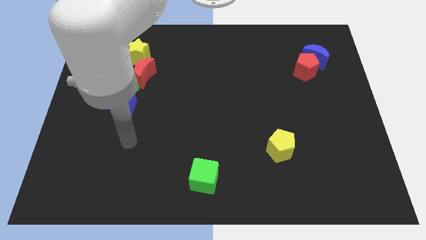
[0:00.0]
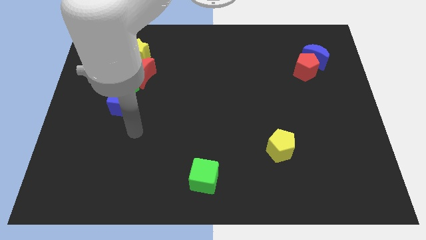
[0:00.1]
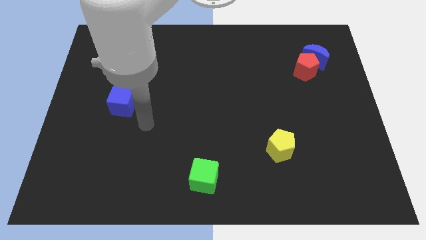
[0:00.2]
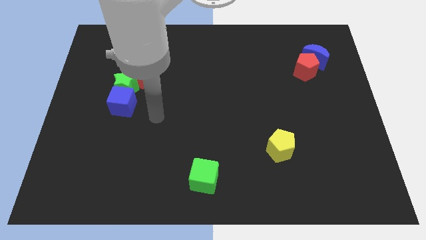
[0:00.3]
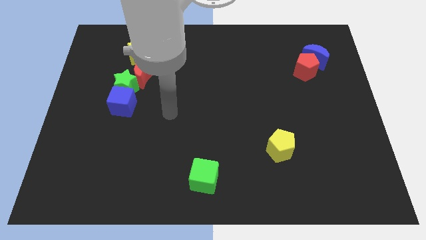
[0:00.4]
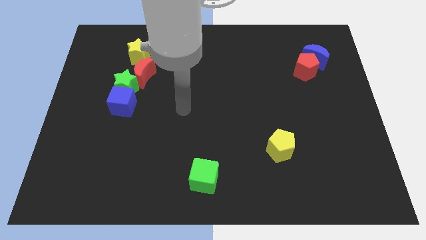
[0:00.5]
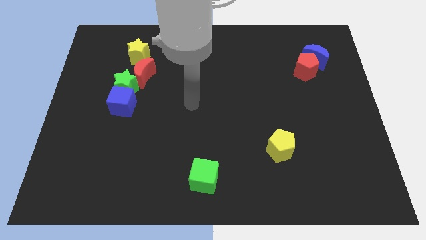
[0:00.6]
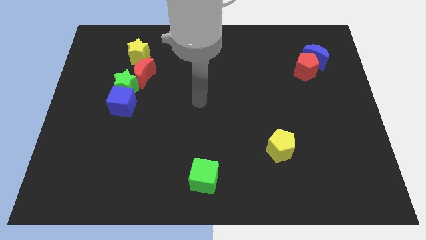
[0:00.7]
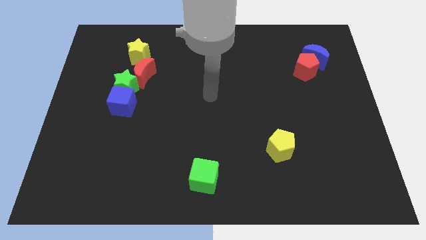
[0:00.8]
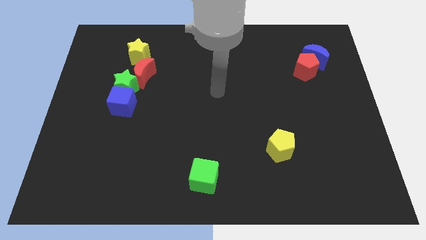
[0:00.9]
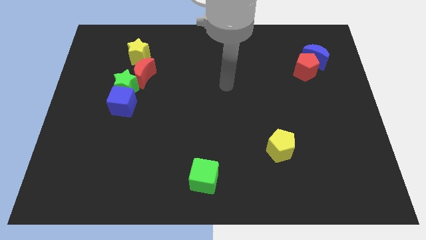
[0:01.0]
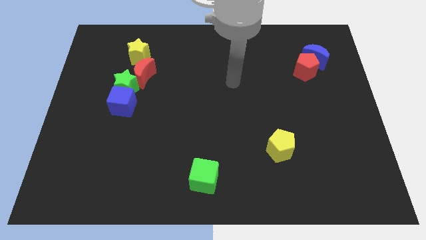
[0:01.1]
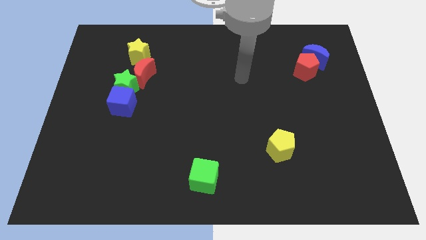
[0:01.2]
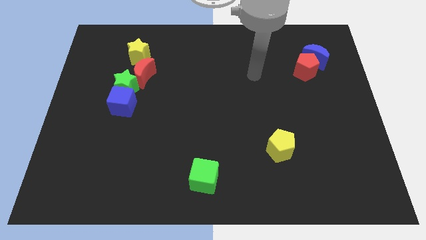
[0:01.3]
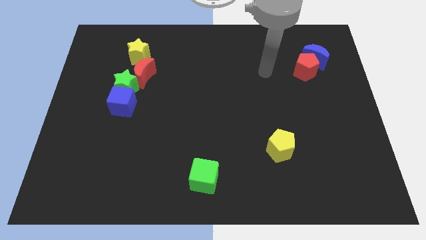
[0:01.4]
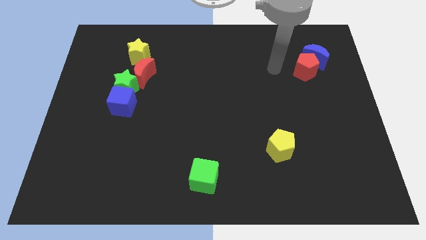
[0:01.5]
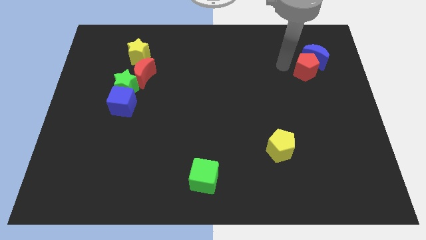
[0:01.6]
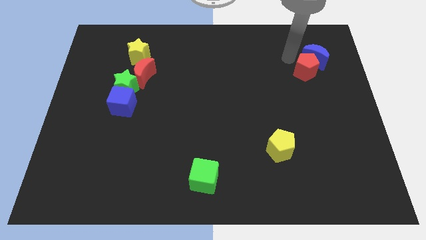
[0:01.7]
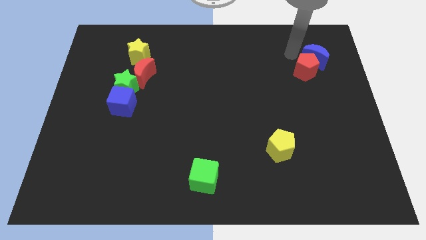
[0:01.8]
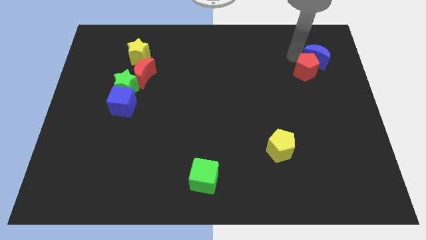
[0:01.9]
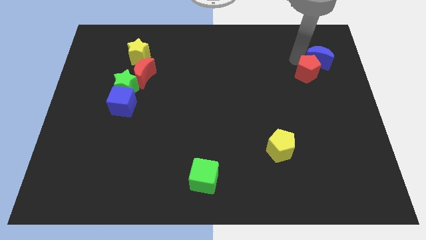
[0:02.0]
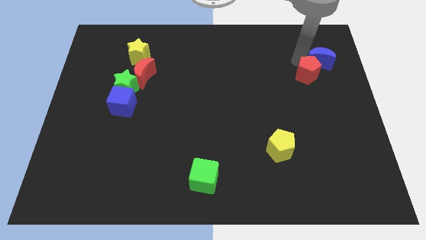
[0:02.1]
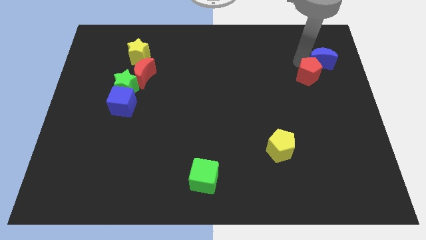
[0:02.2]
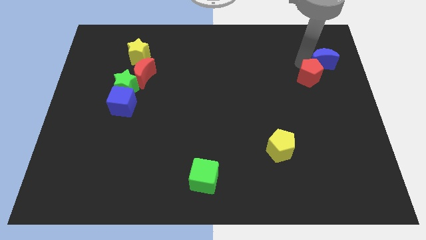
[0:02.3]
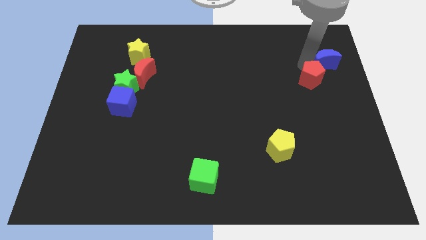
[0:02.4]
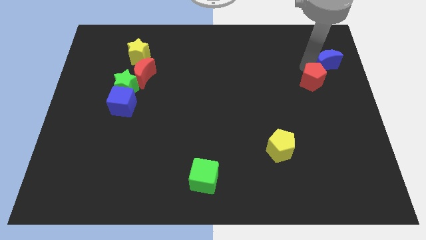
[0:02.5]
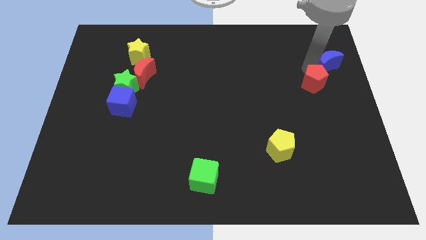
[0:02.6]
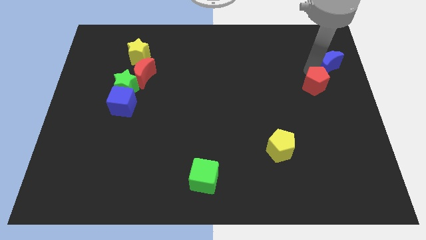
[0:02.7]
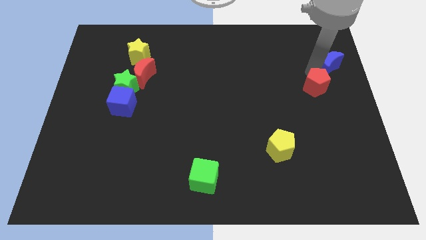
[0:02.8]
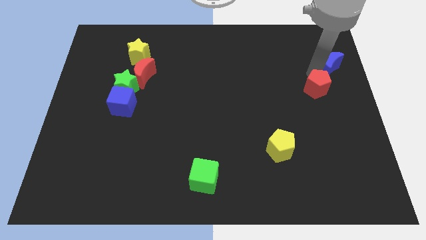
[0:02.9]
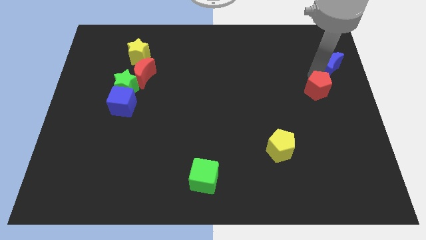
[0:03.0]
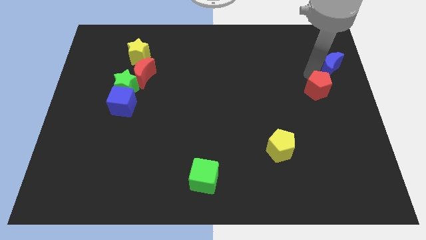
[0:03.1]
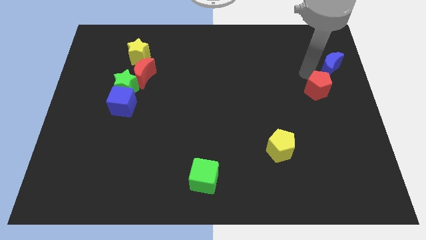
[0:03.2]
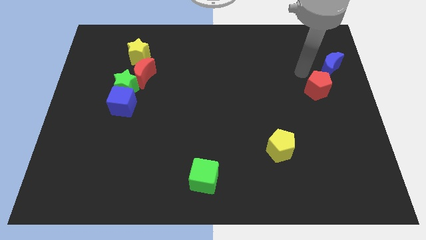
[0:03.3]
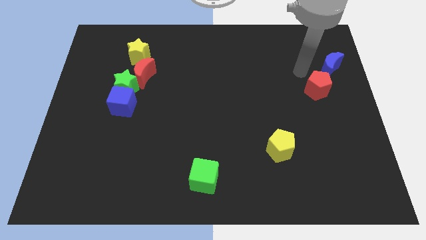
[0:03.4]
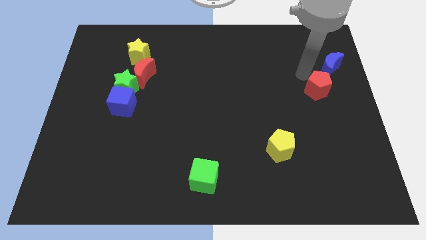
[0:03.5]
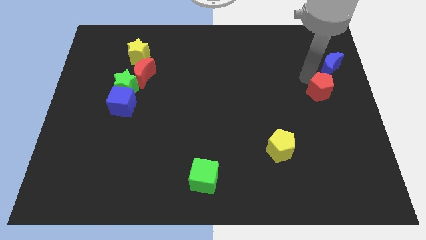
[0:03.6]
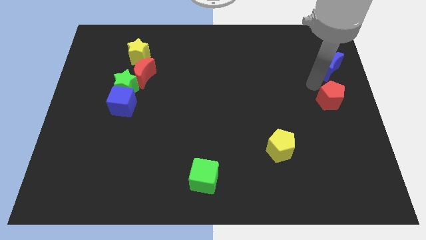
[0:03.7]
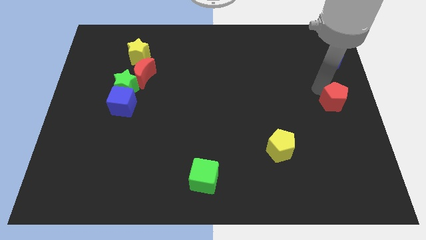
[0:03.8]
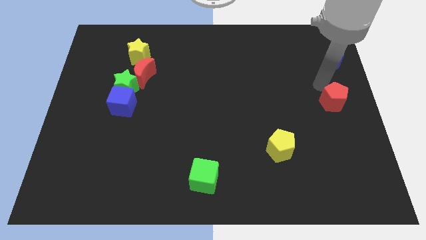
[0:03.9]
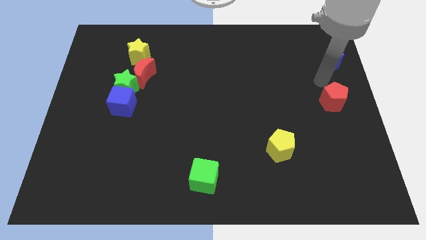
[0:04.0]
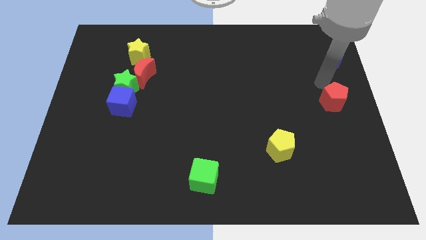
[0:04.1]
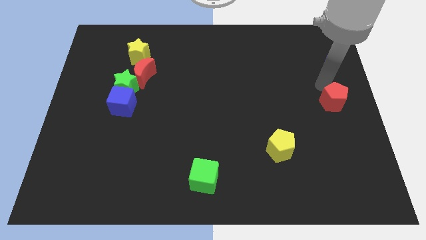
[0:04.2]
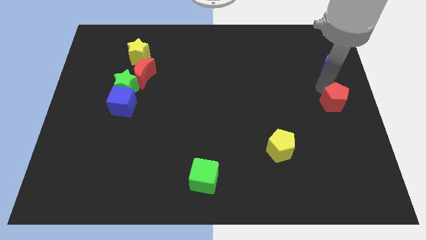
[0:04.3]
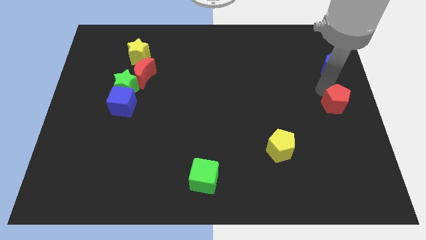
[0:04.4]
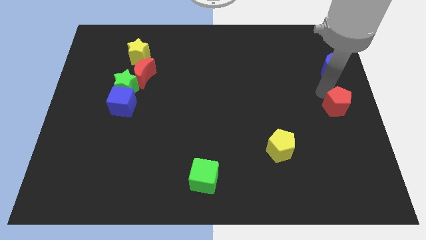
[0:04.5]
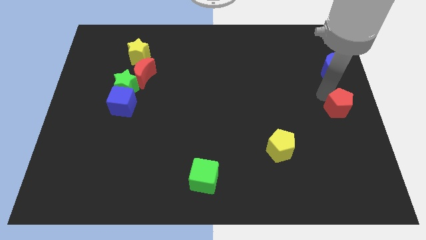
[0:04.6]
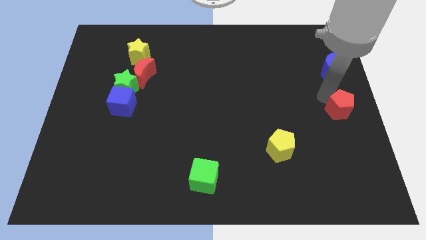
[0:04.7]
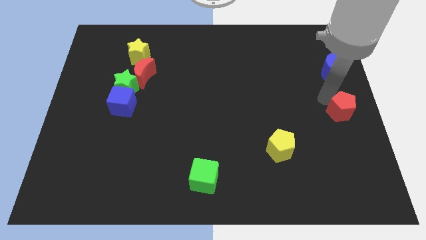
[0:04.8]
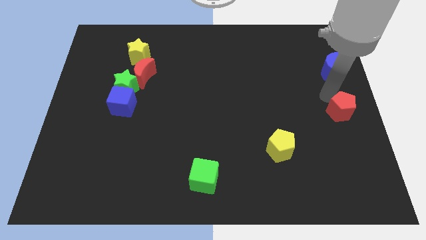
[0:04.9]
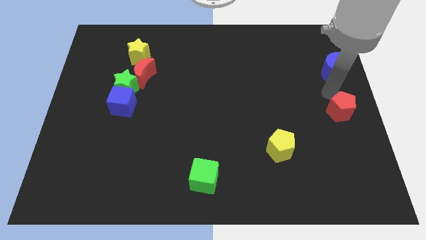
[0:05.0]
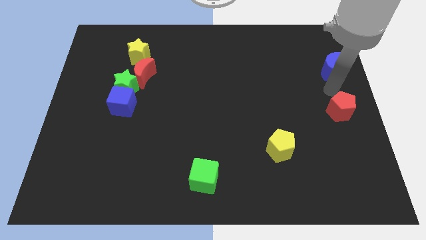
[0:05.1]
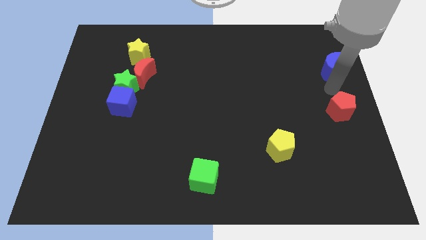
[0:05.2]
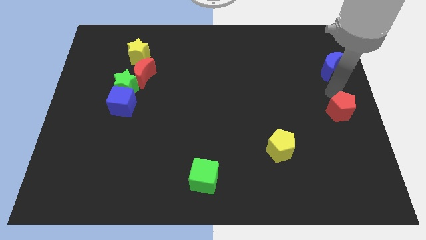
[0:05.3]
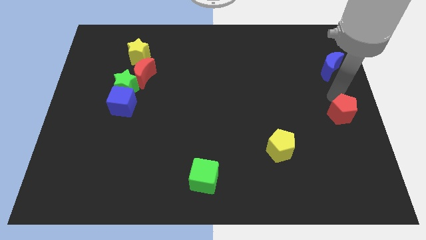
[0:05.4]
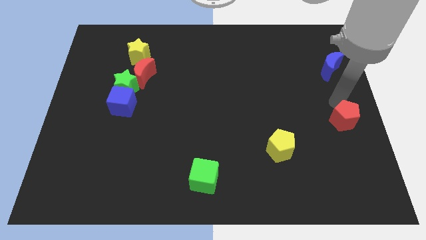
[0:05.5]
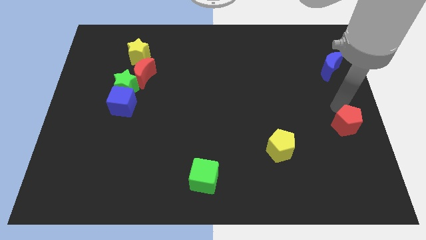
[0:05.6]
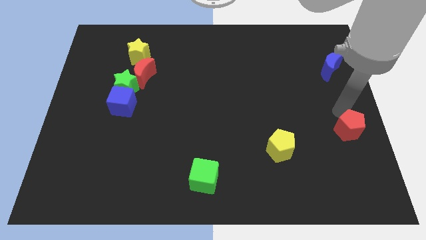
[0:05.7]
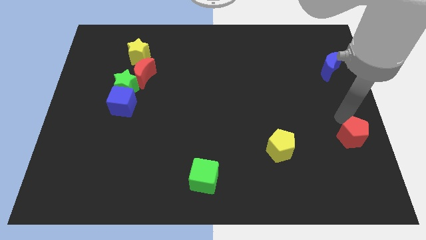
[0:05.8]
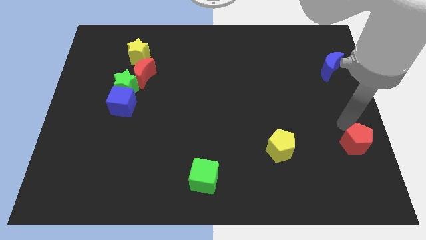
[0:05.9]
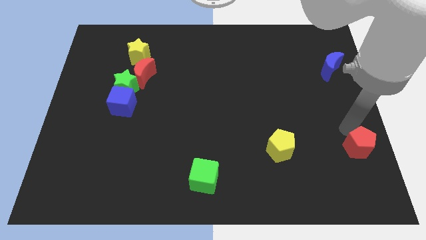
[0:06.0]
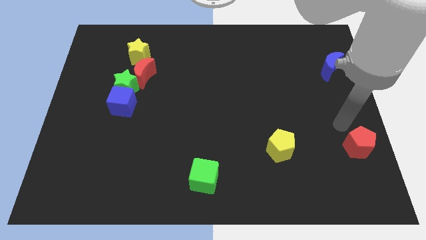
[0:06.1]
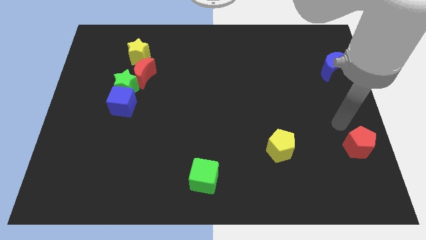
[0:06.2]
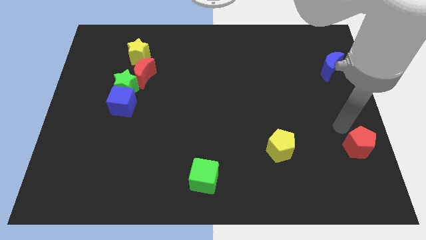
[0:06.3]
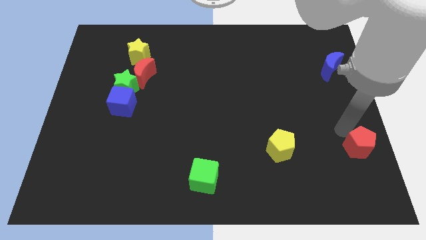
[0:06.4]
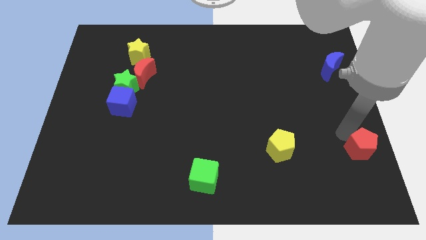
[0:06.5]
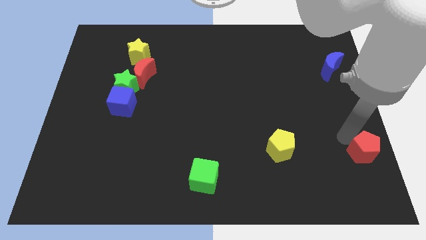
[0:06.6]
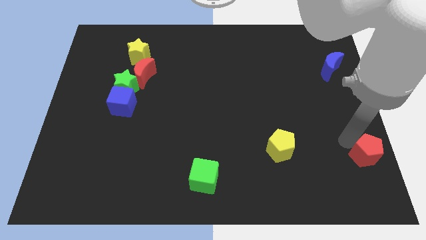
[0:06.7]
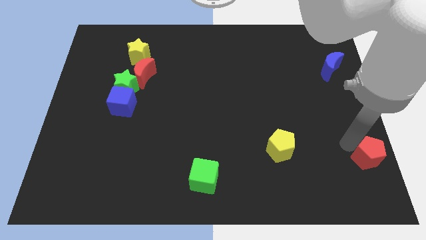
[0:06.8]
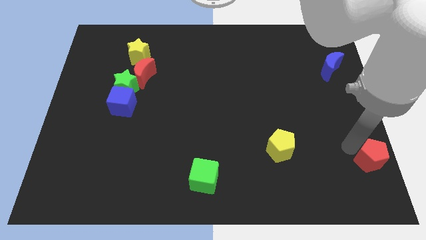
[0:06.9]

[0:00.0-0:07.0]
push the red pentagon to the bottom right corner
